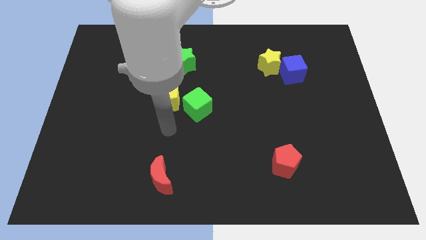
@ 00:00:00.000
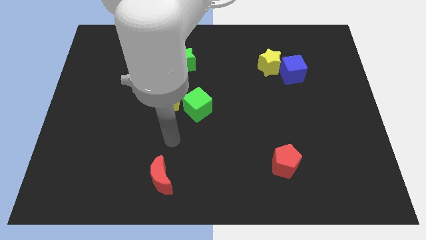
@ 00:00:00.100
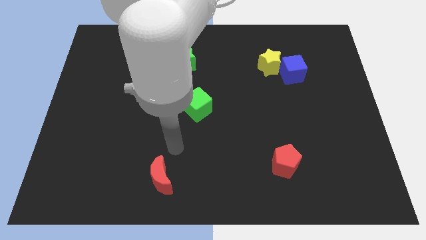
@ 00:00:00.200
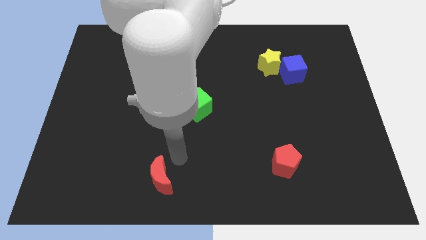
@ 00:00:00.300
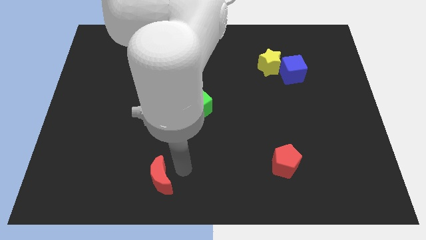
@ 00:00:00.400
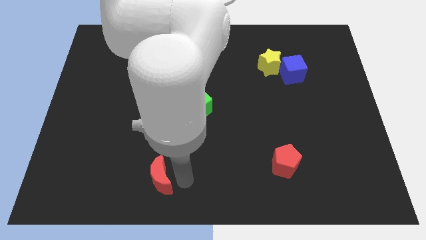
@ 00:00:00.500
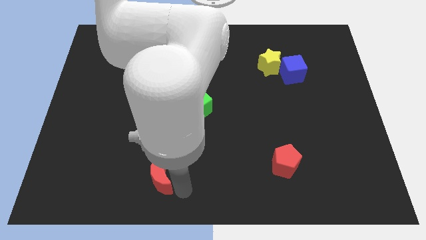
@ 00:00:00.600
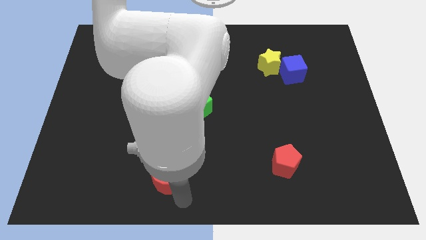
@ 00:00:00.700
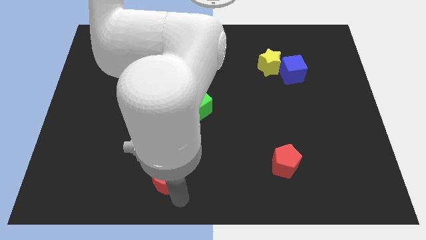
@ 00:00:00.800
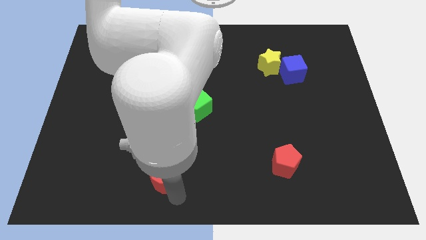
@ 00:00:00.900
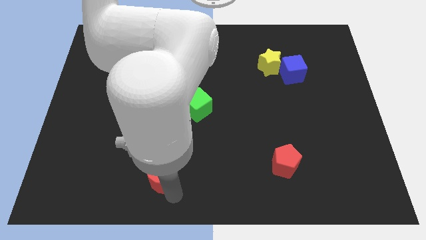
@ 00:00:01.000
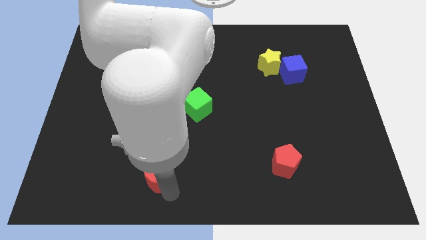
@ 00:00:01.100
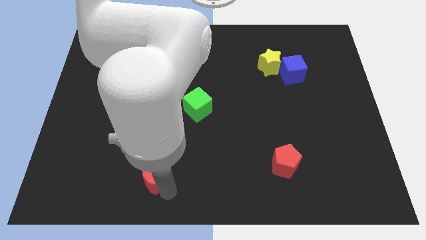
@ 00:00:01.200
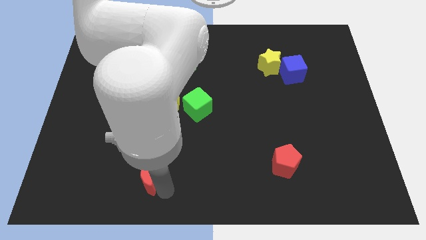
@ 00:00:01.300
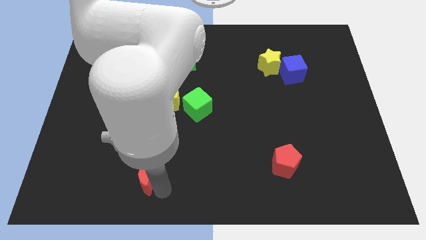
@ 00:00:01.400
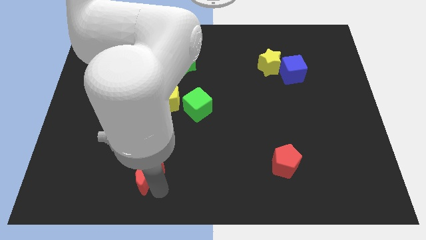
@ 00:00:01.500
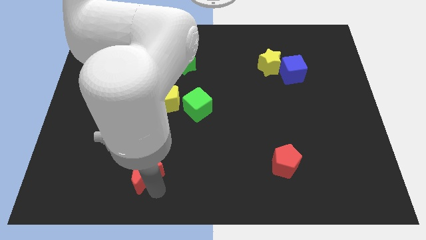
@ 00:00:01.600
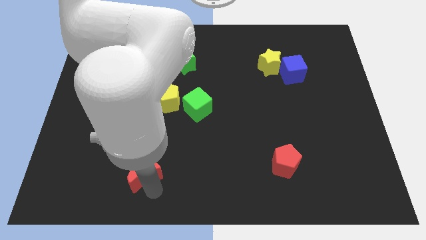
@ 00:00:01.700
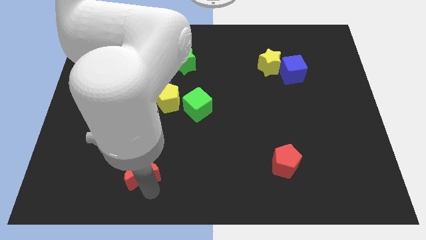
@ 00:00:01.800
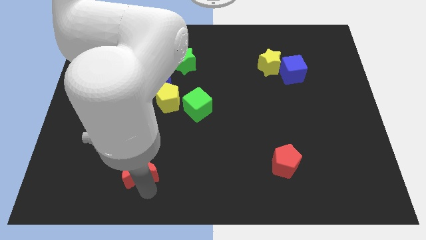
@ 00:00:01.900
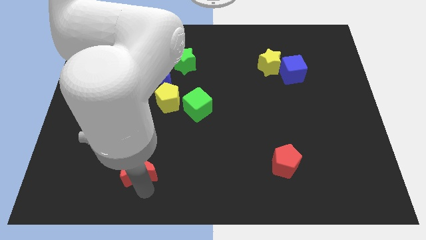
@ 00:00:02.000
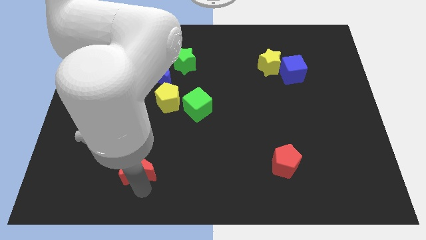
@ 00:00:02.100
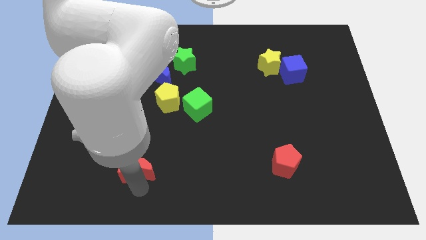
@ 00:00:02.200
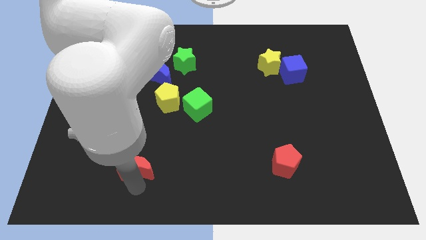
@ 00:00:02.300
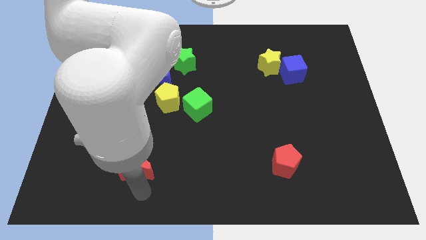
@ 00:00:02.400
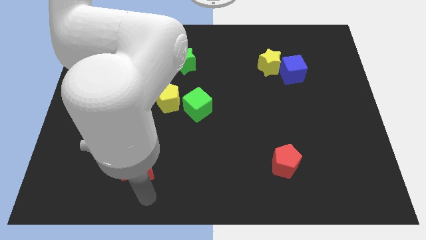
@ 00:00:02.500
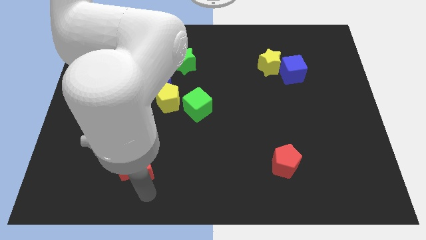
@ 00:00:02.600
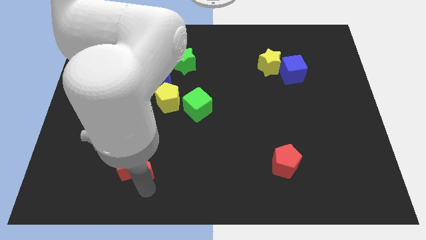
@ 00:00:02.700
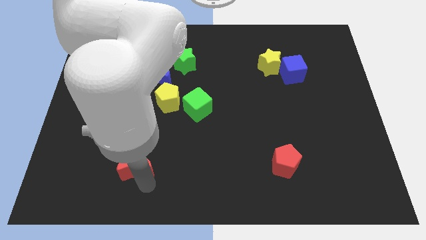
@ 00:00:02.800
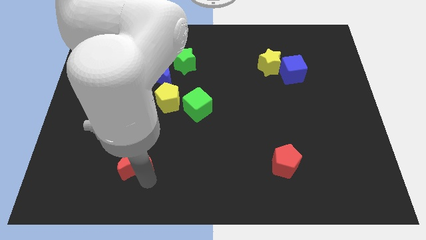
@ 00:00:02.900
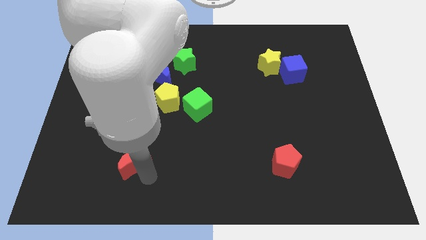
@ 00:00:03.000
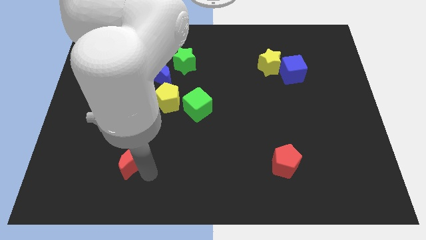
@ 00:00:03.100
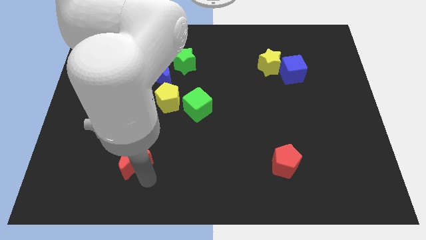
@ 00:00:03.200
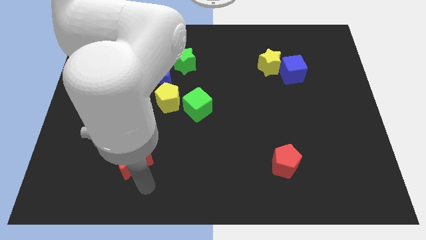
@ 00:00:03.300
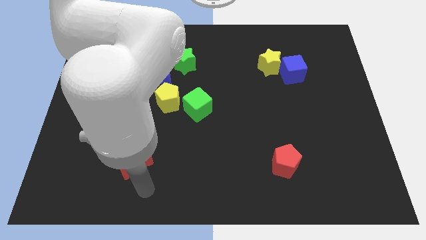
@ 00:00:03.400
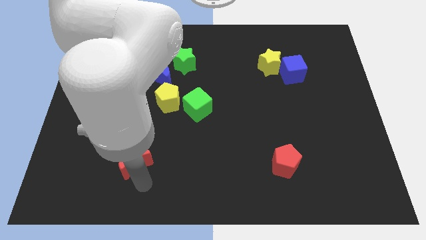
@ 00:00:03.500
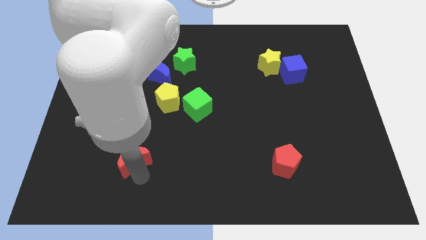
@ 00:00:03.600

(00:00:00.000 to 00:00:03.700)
push the red moon upwards and to the left somewhat

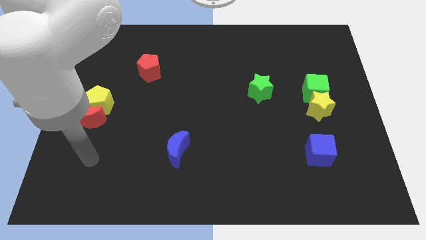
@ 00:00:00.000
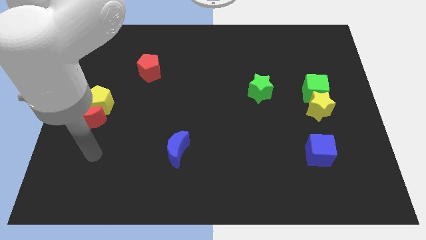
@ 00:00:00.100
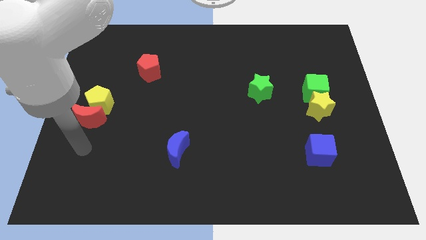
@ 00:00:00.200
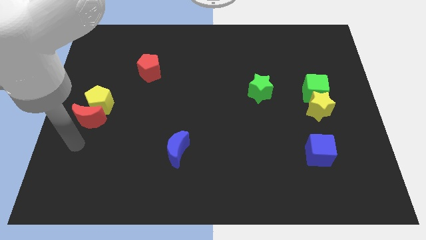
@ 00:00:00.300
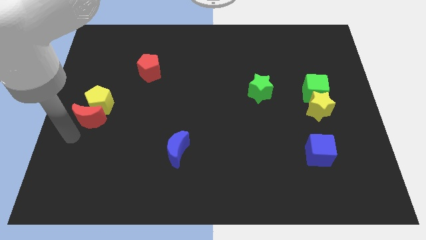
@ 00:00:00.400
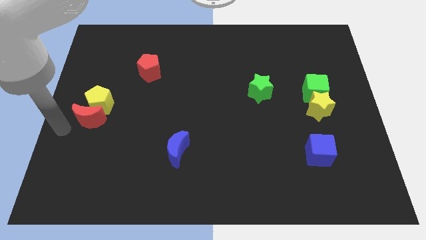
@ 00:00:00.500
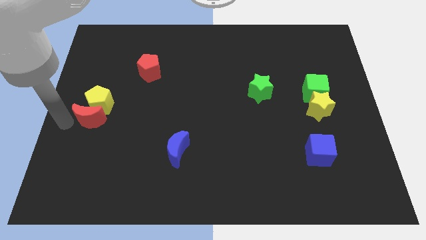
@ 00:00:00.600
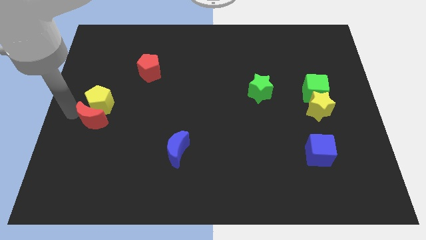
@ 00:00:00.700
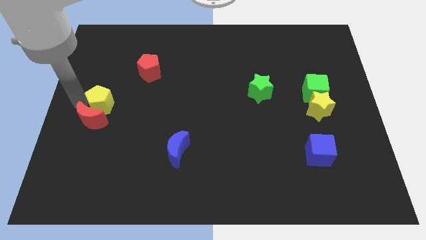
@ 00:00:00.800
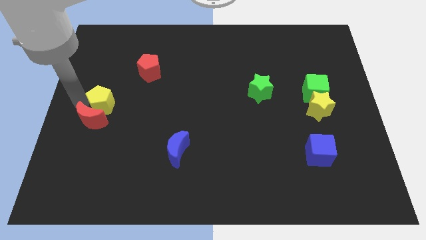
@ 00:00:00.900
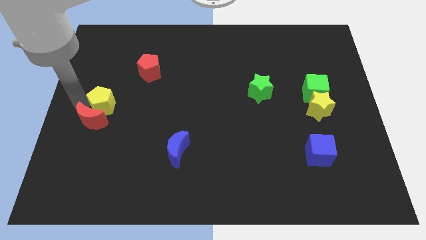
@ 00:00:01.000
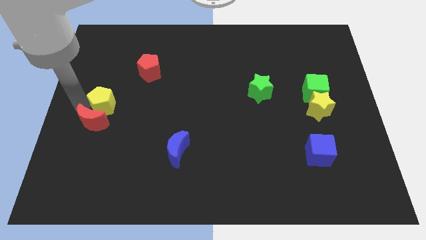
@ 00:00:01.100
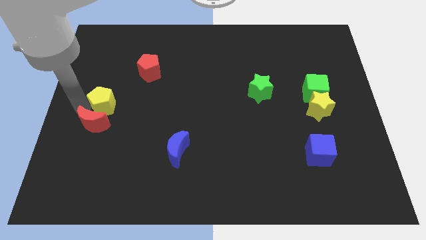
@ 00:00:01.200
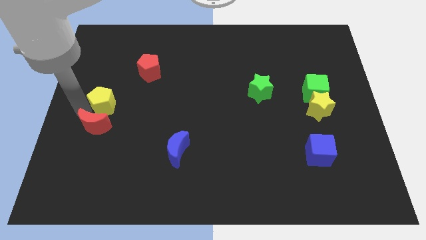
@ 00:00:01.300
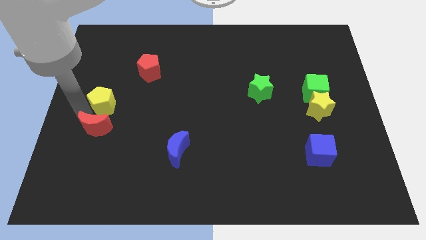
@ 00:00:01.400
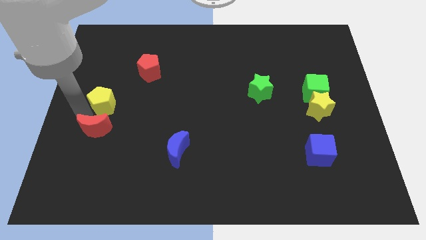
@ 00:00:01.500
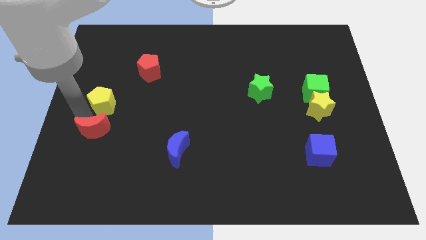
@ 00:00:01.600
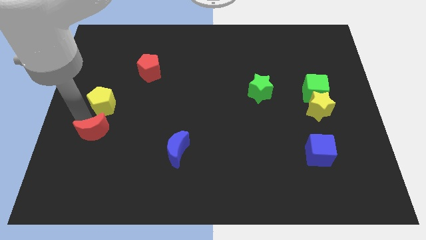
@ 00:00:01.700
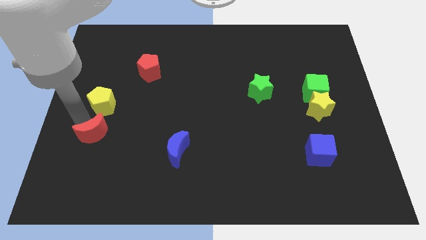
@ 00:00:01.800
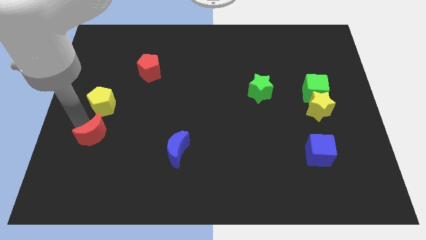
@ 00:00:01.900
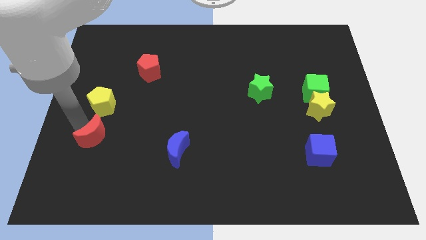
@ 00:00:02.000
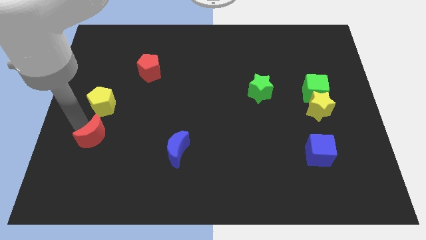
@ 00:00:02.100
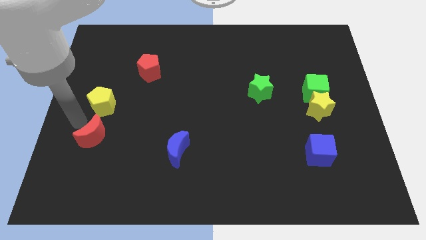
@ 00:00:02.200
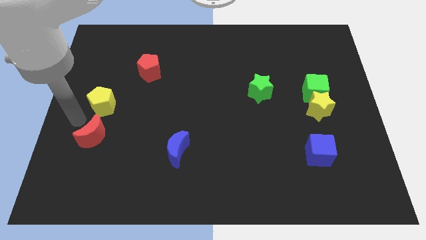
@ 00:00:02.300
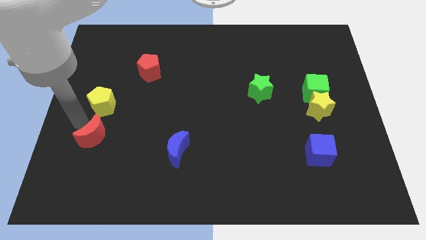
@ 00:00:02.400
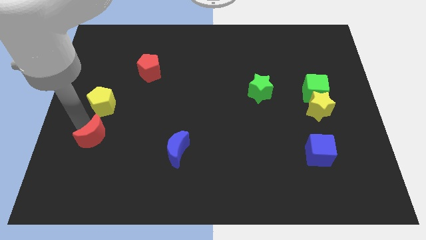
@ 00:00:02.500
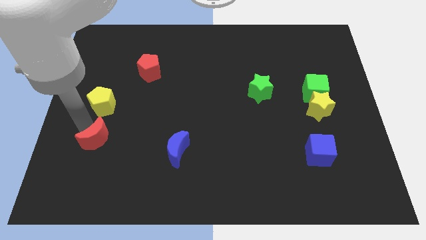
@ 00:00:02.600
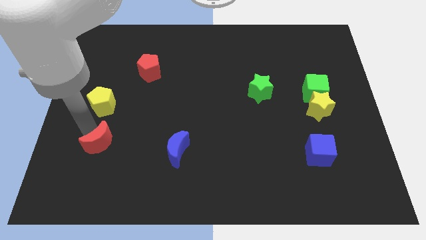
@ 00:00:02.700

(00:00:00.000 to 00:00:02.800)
move the red moon down and then to the right a bit

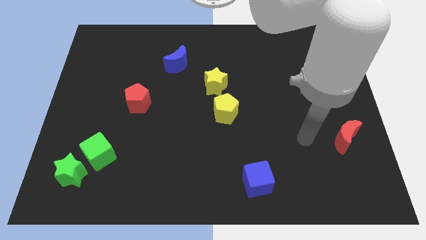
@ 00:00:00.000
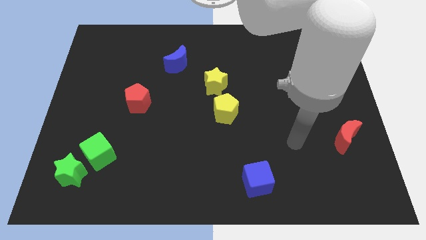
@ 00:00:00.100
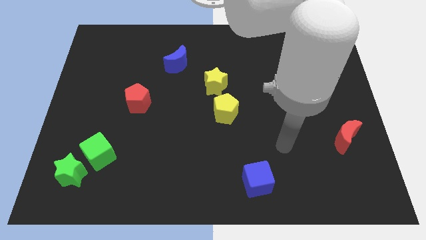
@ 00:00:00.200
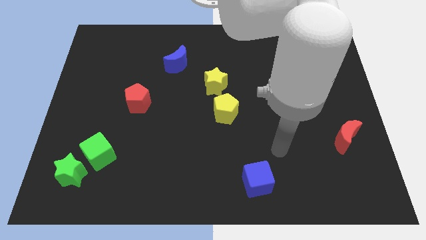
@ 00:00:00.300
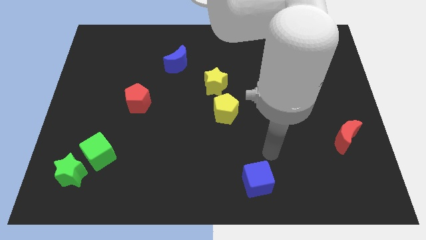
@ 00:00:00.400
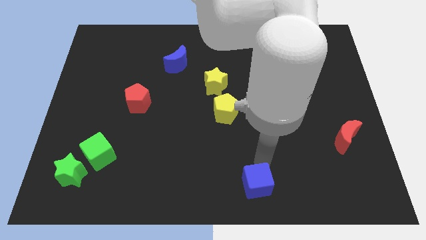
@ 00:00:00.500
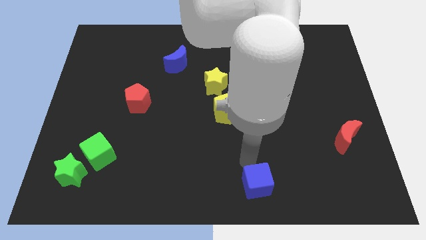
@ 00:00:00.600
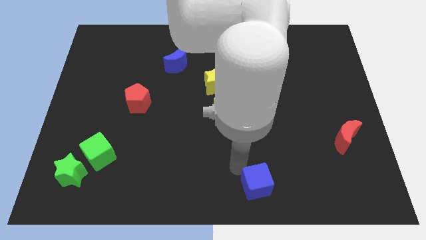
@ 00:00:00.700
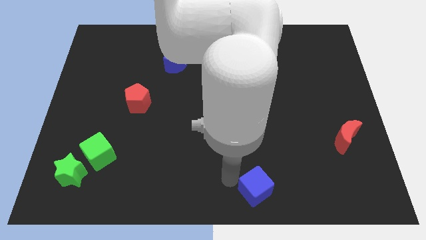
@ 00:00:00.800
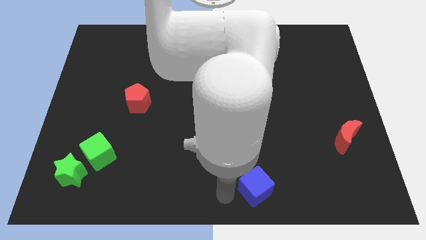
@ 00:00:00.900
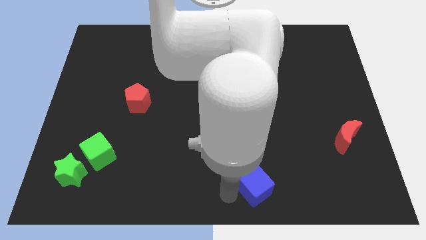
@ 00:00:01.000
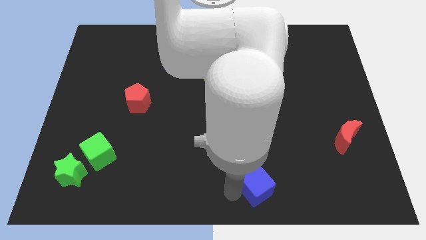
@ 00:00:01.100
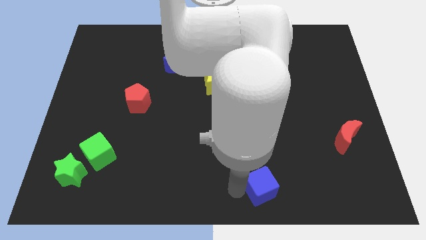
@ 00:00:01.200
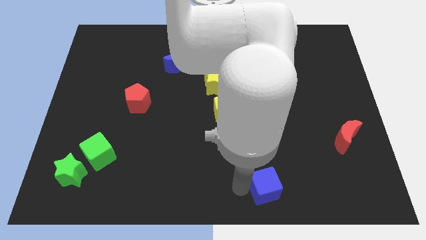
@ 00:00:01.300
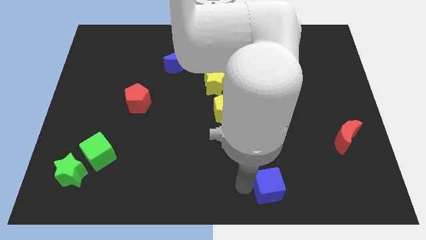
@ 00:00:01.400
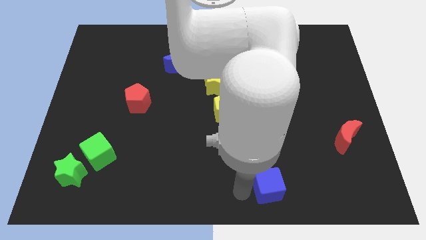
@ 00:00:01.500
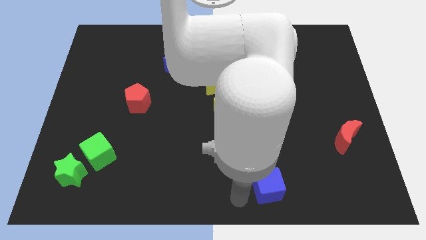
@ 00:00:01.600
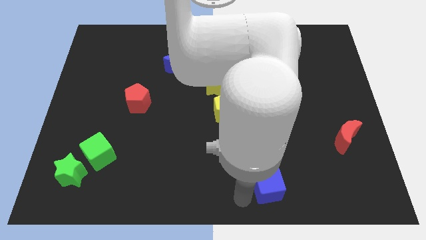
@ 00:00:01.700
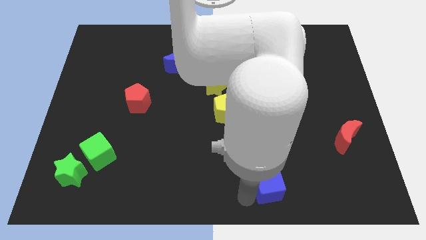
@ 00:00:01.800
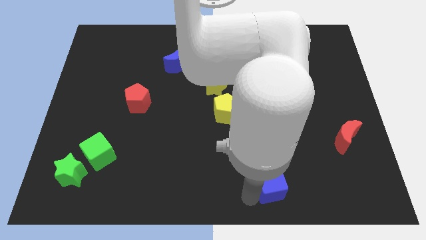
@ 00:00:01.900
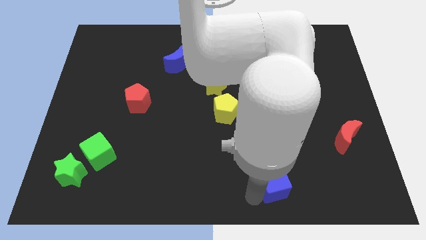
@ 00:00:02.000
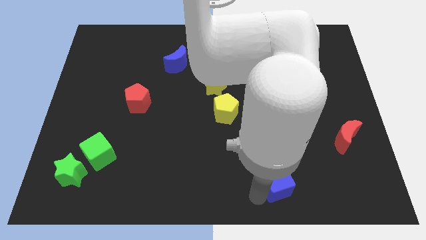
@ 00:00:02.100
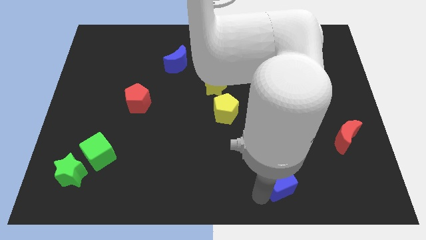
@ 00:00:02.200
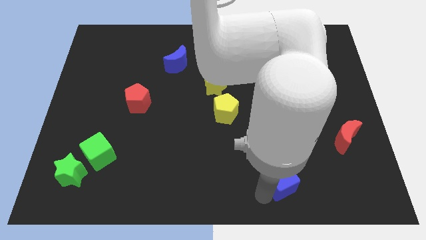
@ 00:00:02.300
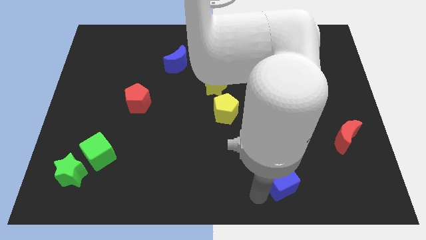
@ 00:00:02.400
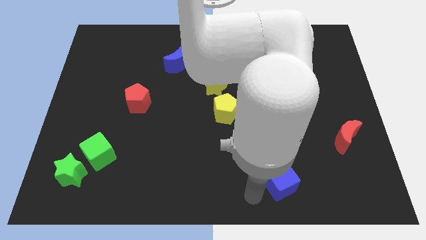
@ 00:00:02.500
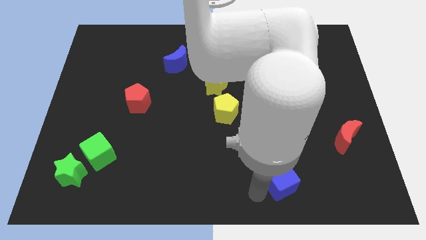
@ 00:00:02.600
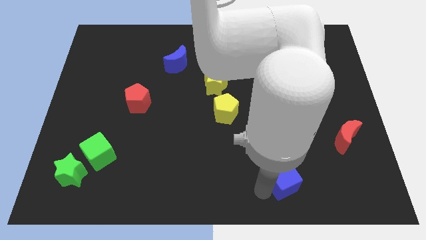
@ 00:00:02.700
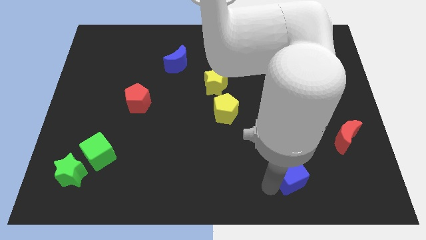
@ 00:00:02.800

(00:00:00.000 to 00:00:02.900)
slide the blue cube to the right a bit
